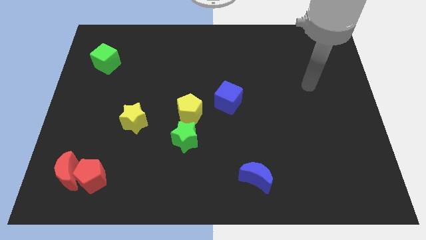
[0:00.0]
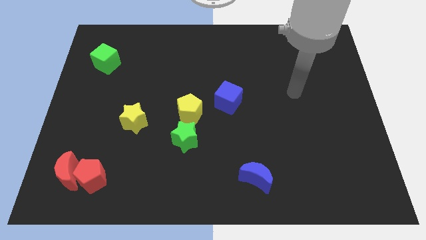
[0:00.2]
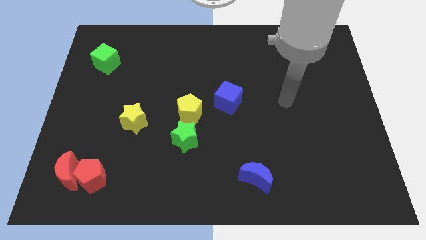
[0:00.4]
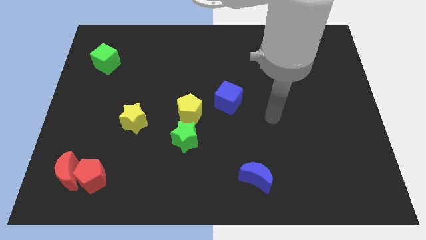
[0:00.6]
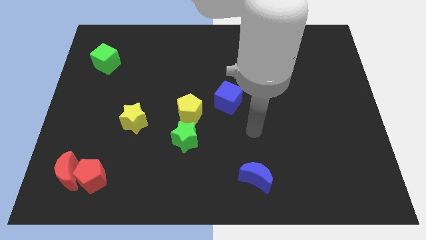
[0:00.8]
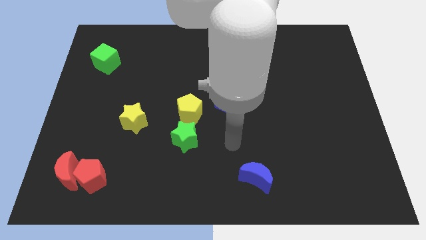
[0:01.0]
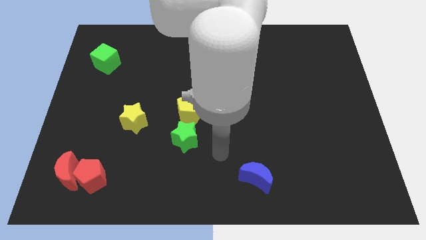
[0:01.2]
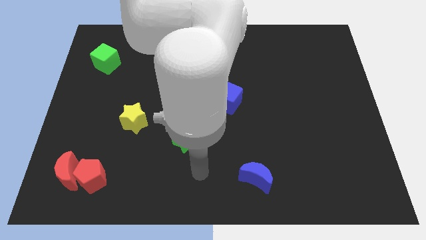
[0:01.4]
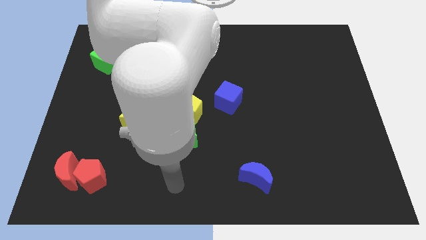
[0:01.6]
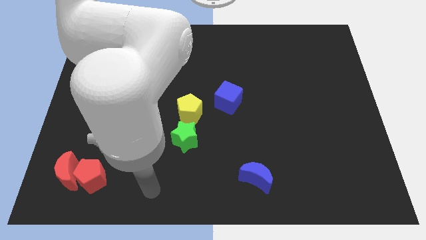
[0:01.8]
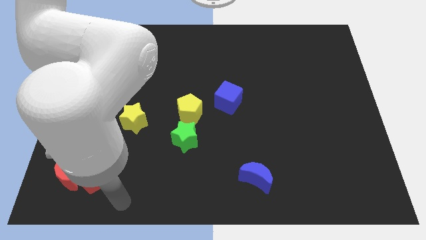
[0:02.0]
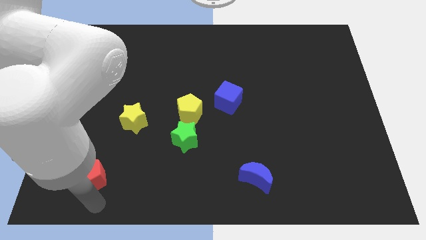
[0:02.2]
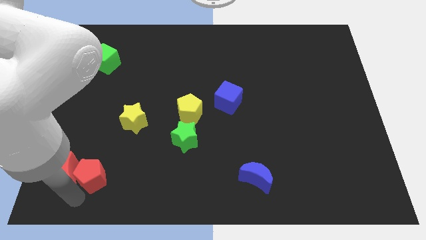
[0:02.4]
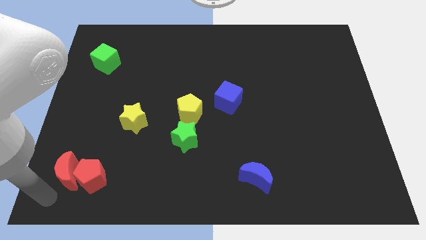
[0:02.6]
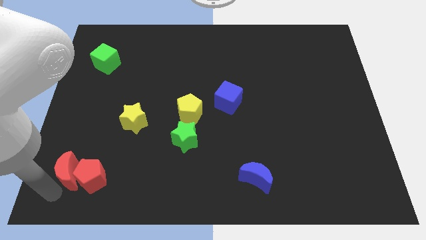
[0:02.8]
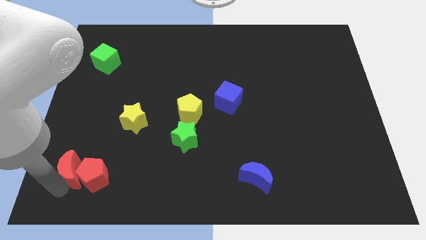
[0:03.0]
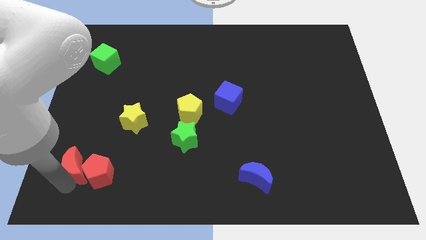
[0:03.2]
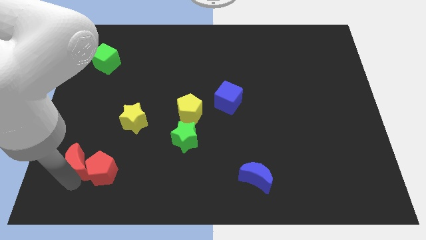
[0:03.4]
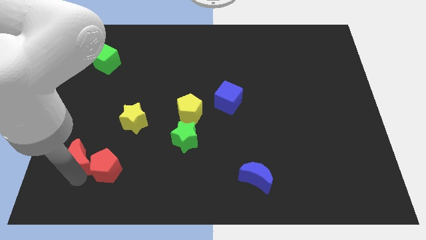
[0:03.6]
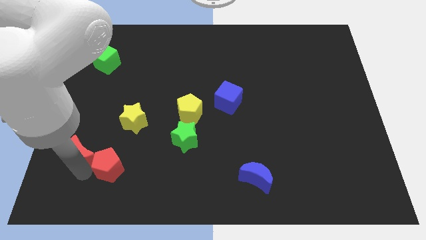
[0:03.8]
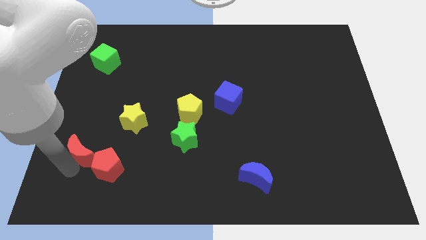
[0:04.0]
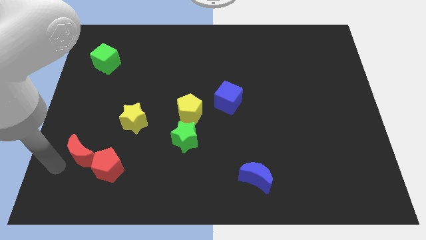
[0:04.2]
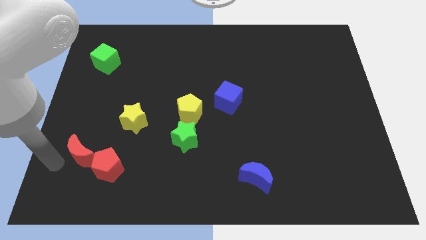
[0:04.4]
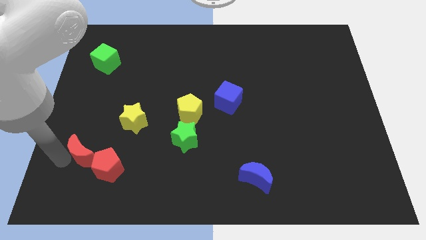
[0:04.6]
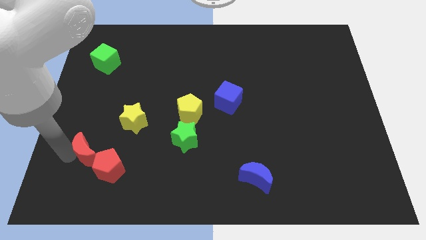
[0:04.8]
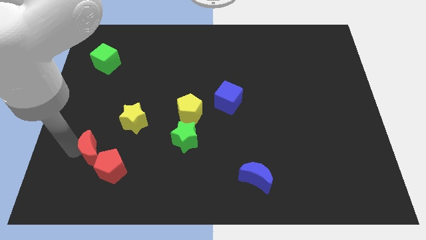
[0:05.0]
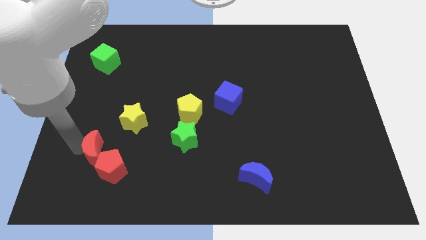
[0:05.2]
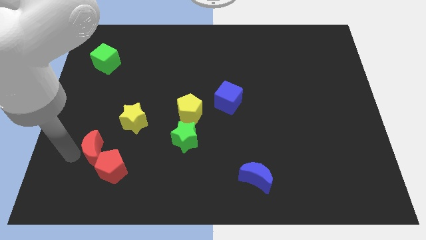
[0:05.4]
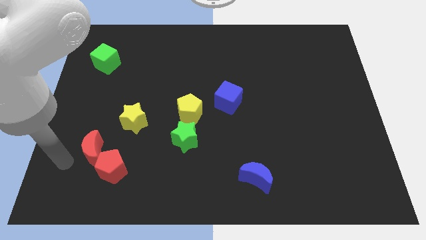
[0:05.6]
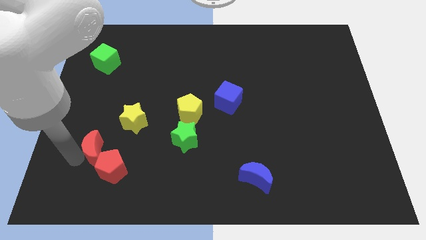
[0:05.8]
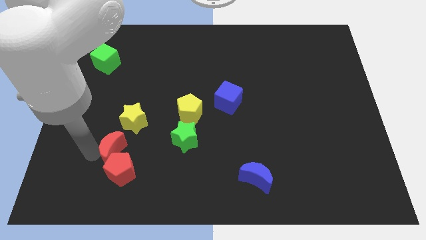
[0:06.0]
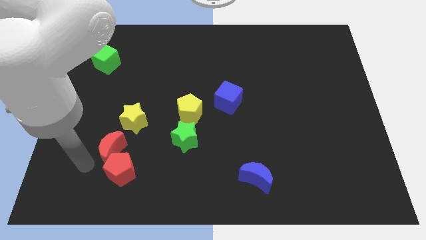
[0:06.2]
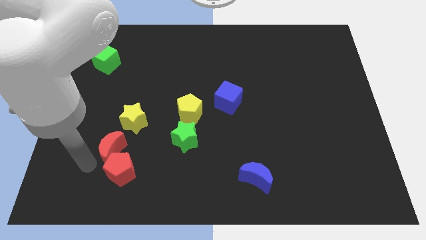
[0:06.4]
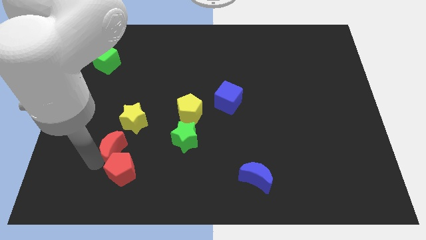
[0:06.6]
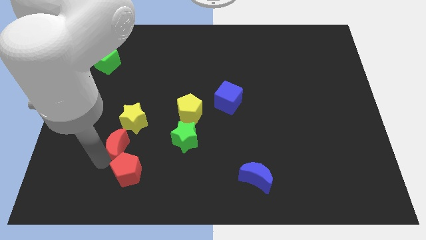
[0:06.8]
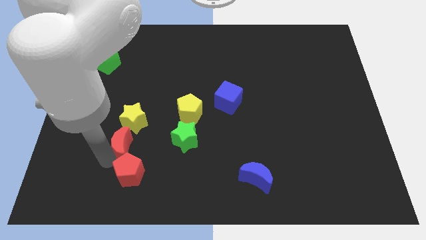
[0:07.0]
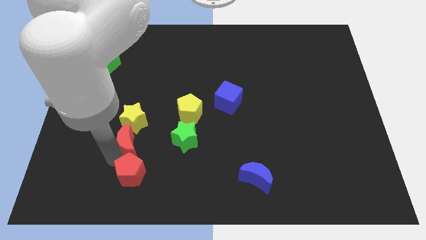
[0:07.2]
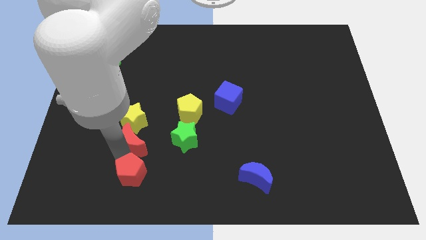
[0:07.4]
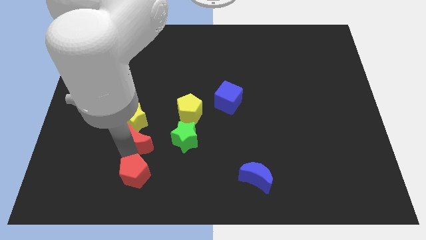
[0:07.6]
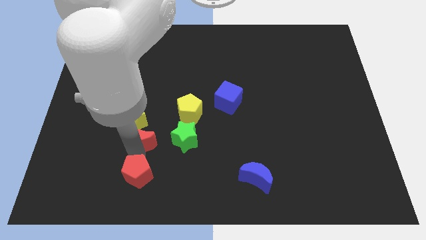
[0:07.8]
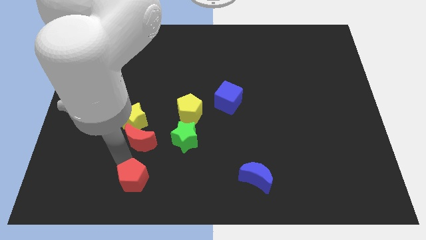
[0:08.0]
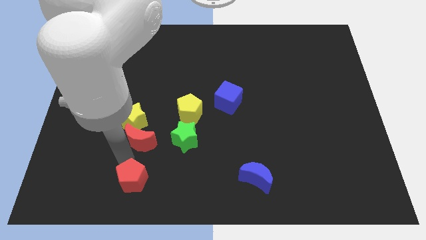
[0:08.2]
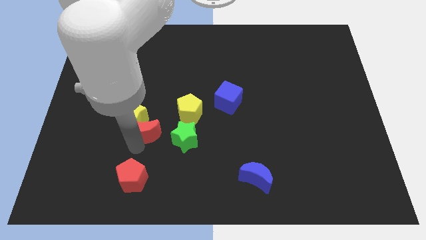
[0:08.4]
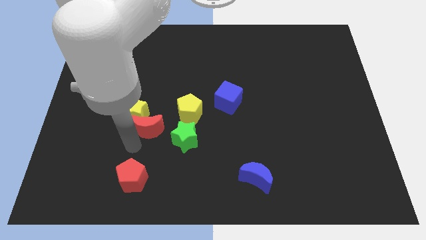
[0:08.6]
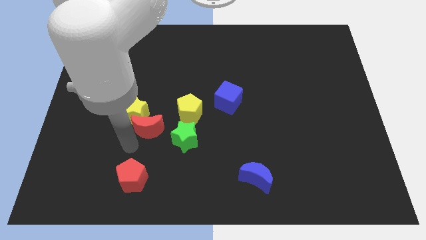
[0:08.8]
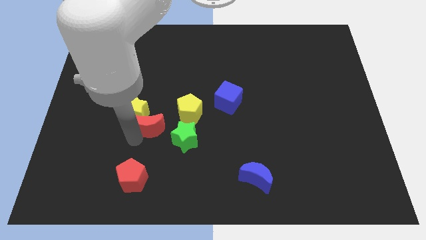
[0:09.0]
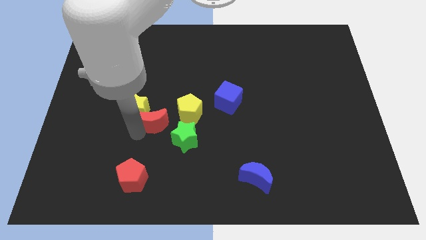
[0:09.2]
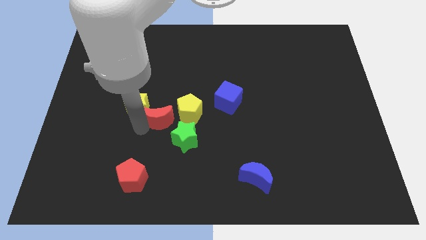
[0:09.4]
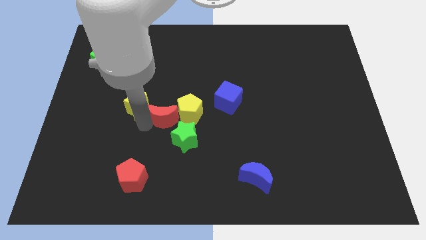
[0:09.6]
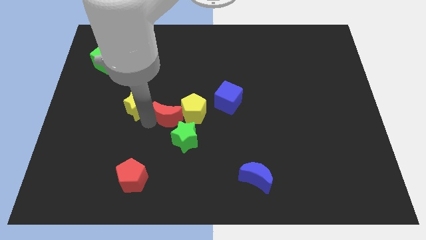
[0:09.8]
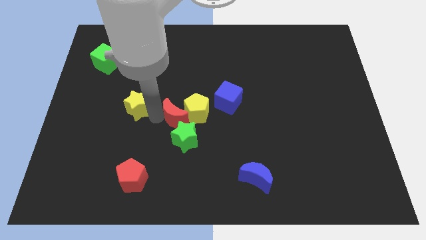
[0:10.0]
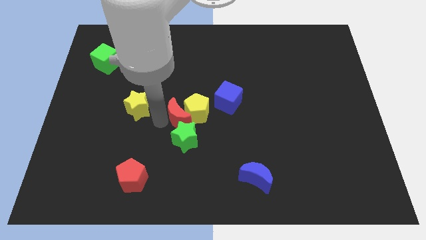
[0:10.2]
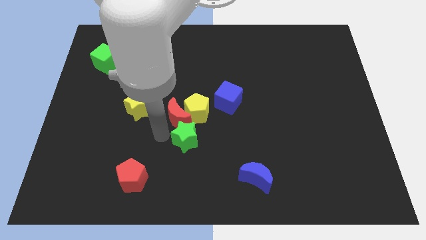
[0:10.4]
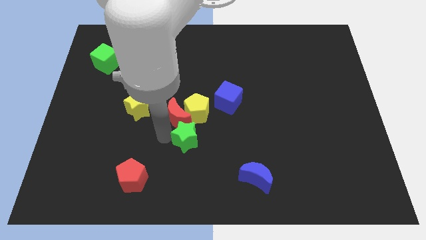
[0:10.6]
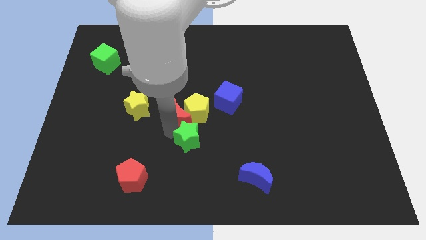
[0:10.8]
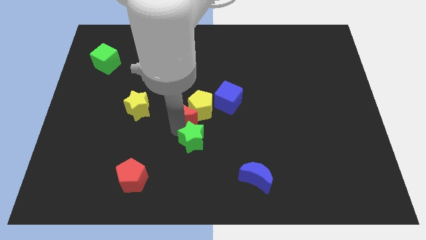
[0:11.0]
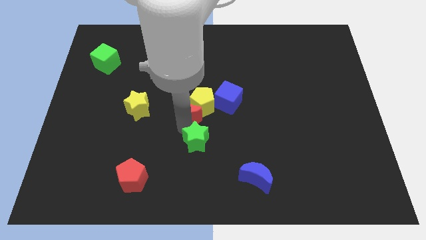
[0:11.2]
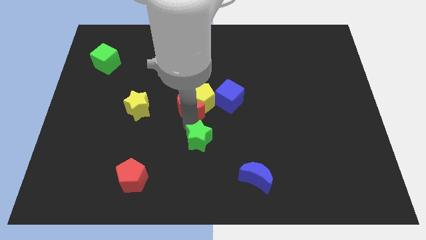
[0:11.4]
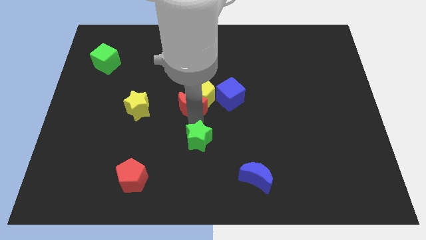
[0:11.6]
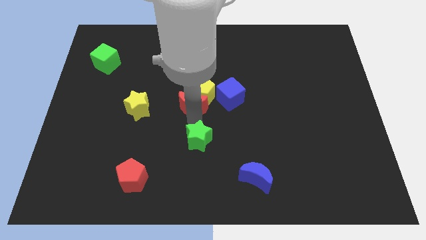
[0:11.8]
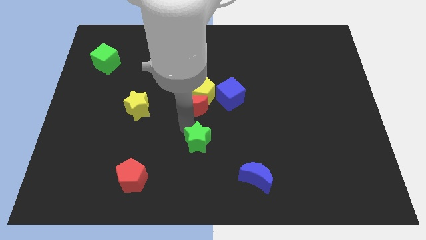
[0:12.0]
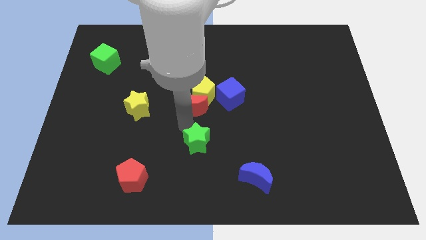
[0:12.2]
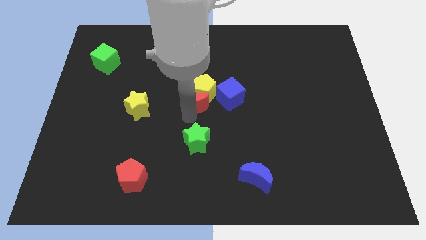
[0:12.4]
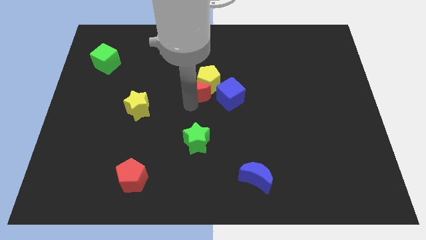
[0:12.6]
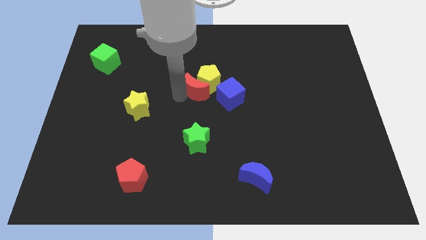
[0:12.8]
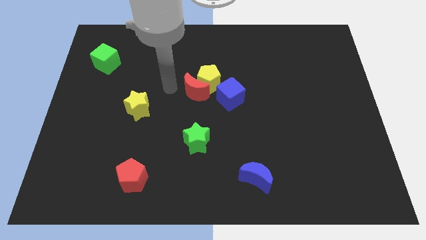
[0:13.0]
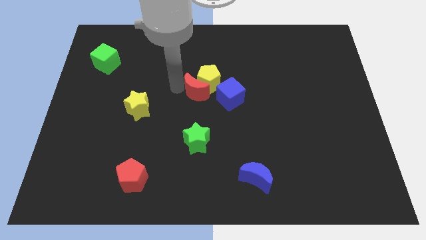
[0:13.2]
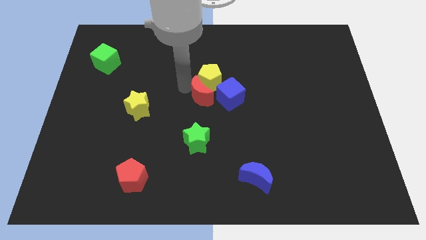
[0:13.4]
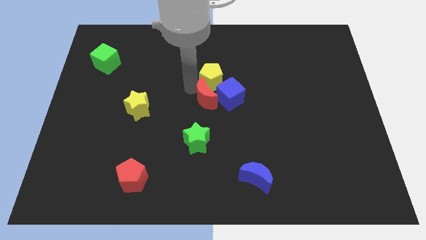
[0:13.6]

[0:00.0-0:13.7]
push the red moon towards the blue cube
